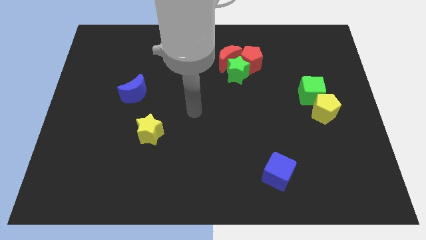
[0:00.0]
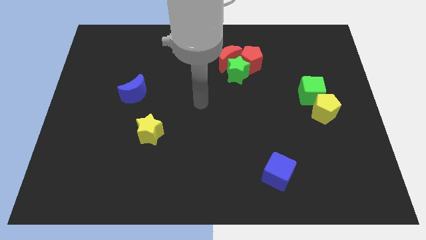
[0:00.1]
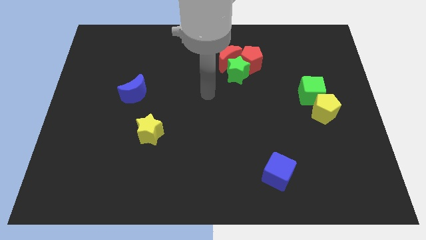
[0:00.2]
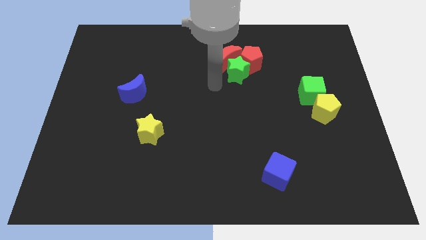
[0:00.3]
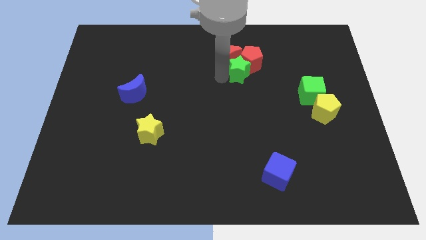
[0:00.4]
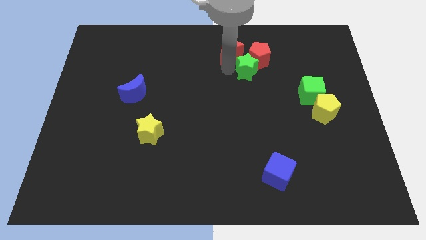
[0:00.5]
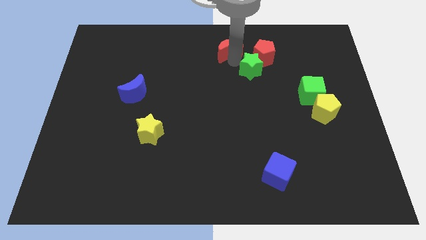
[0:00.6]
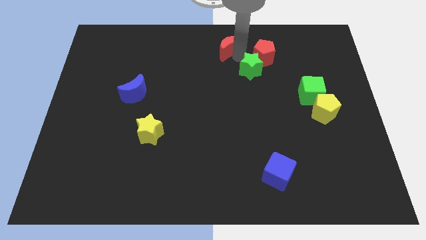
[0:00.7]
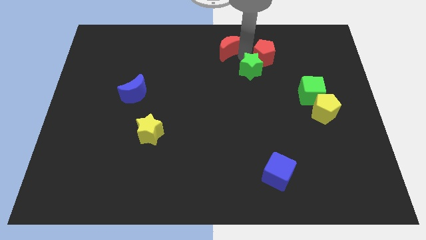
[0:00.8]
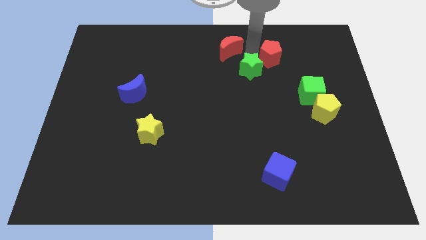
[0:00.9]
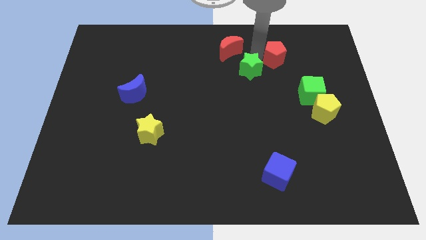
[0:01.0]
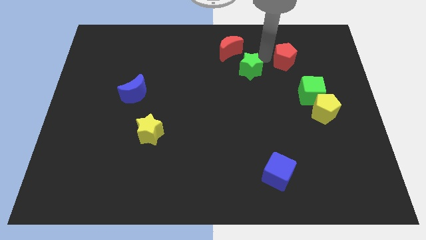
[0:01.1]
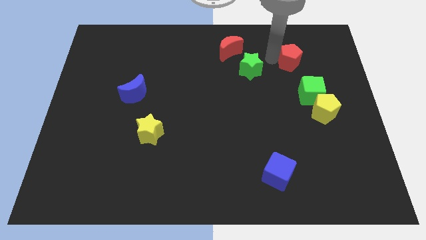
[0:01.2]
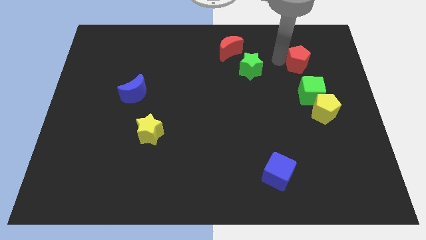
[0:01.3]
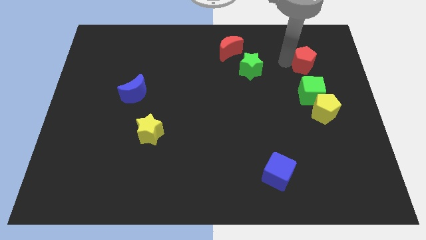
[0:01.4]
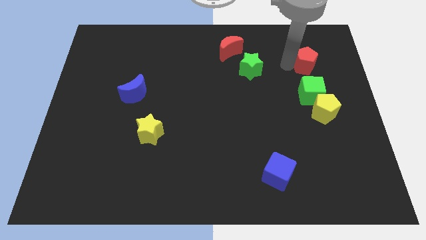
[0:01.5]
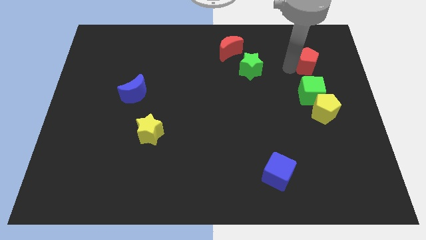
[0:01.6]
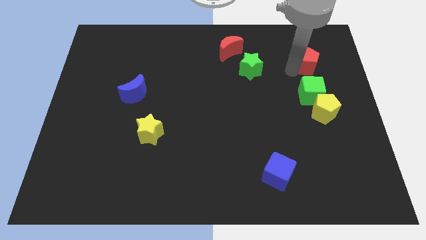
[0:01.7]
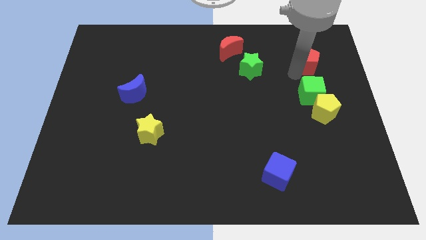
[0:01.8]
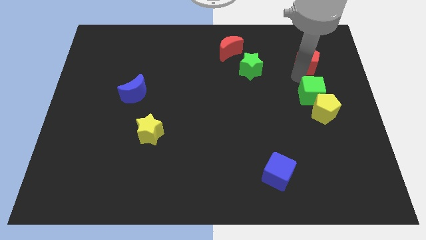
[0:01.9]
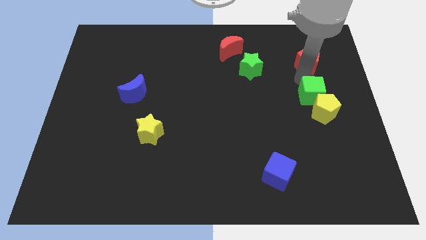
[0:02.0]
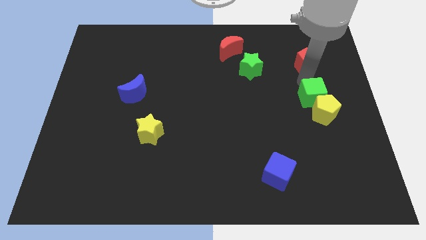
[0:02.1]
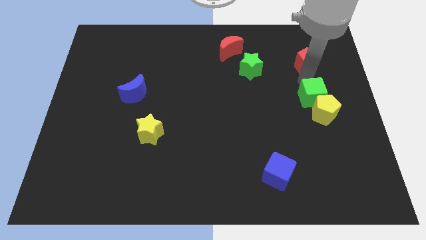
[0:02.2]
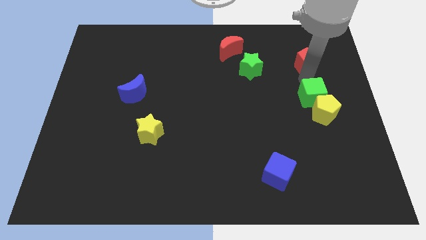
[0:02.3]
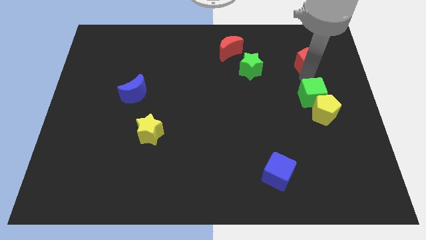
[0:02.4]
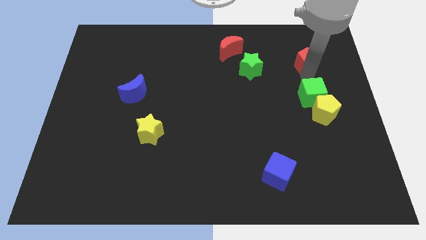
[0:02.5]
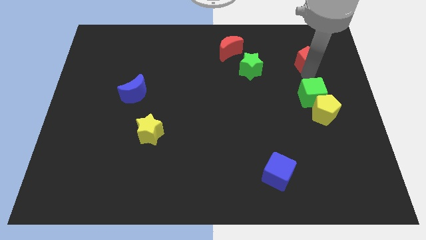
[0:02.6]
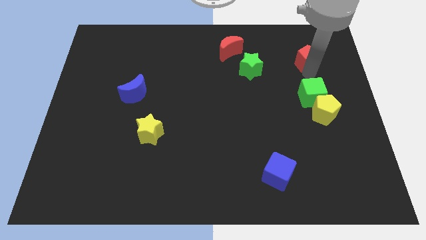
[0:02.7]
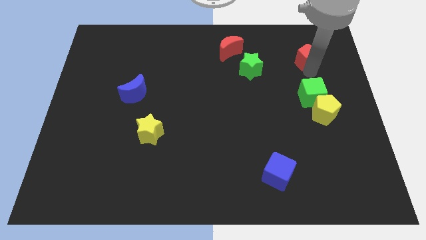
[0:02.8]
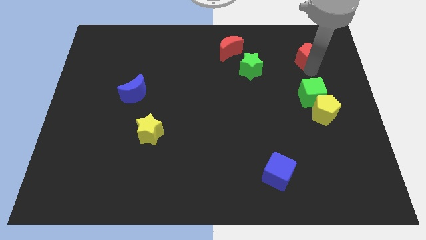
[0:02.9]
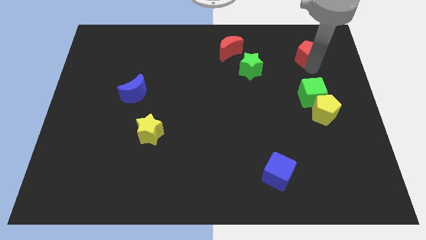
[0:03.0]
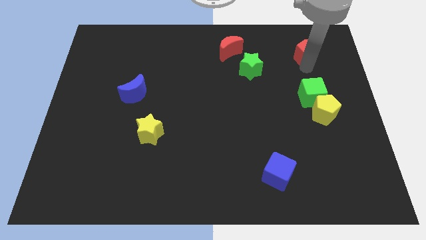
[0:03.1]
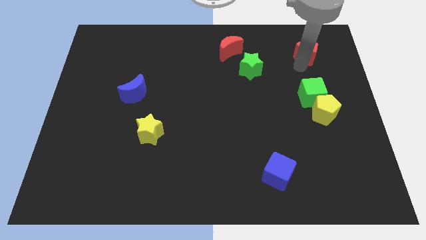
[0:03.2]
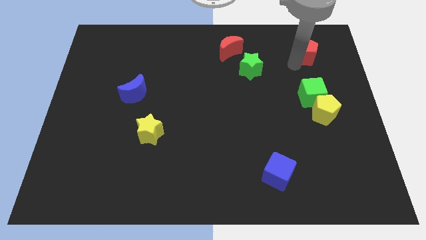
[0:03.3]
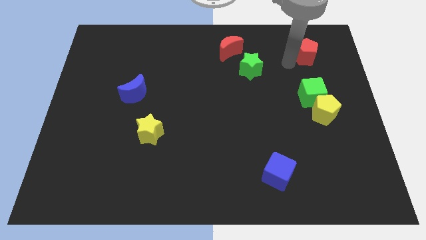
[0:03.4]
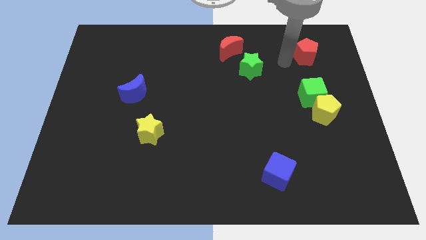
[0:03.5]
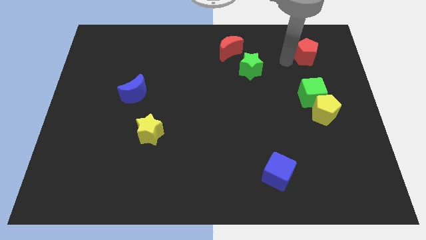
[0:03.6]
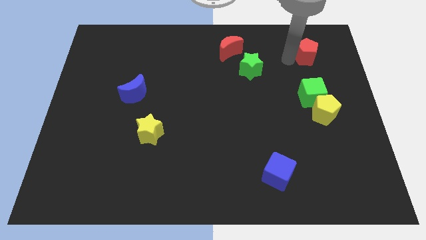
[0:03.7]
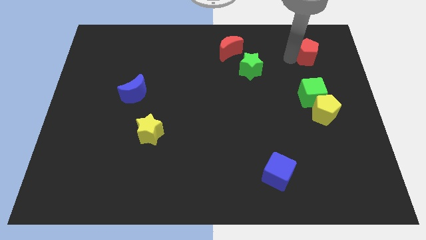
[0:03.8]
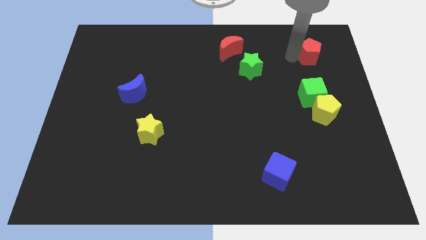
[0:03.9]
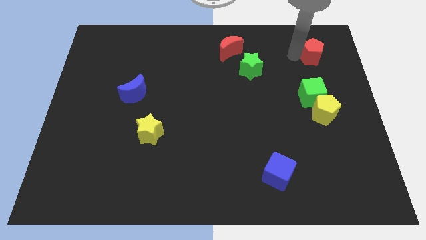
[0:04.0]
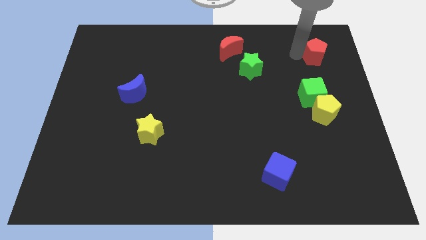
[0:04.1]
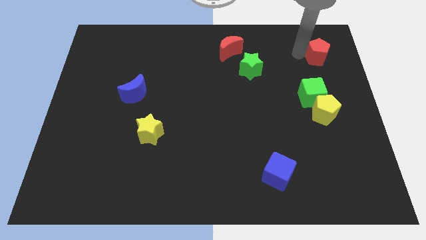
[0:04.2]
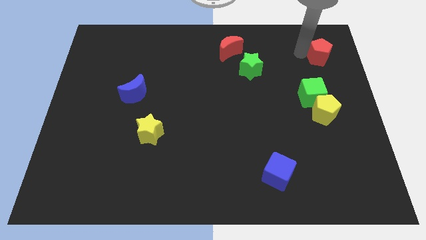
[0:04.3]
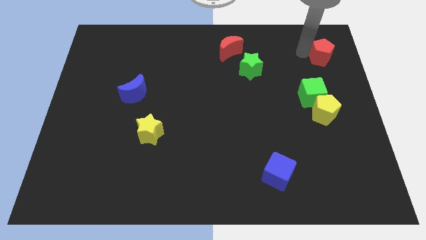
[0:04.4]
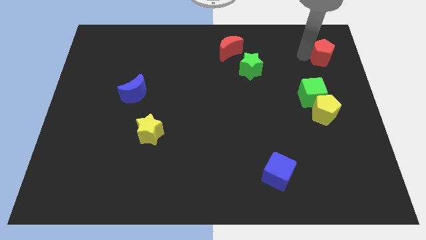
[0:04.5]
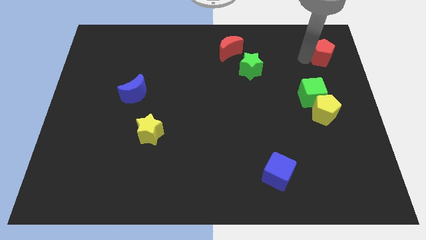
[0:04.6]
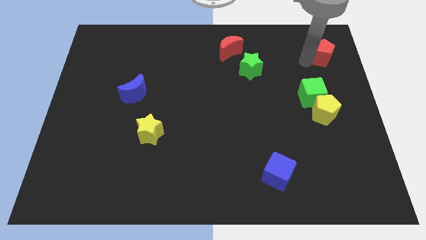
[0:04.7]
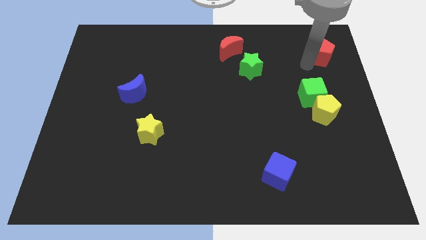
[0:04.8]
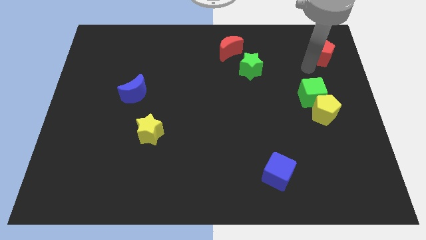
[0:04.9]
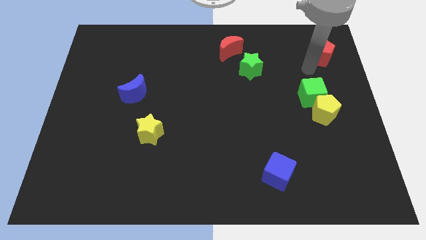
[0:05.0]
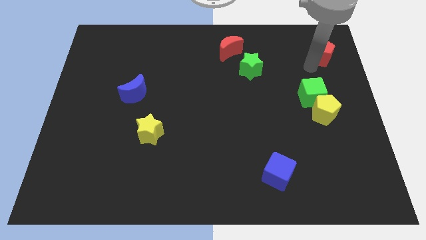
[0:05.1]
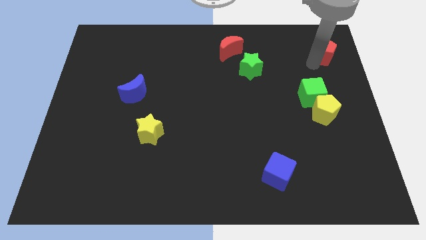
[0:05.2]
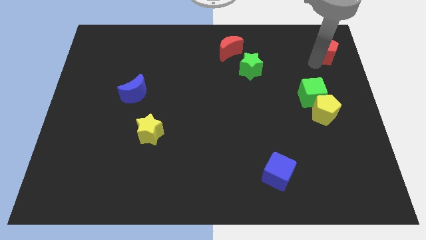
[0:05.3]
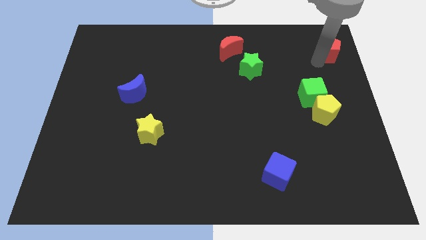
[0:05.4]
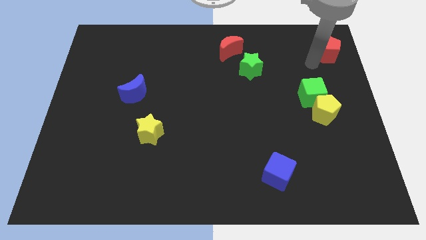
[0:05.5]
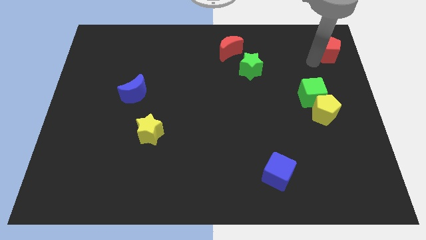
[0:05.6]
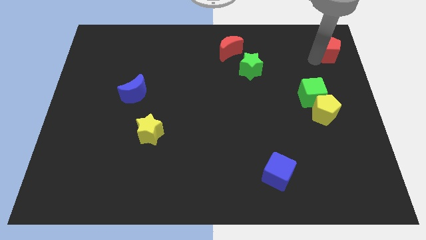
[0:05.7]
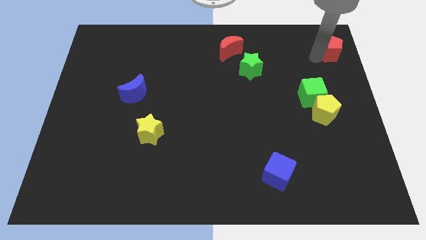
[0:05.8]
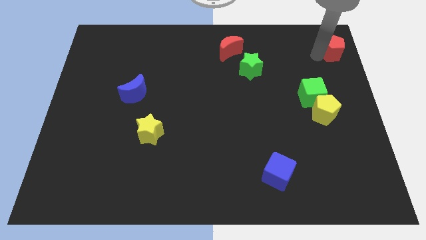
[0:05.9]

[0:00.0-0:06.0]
slide the red pentagon to the top right
